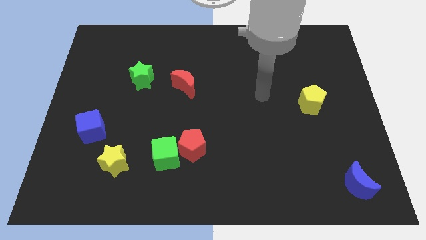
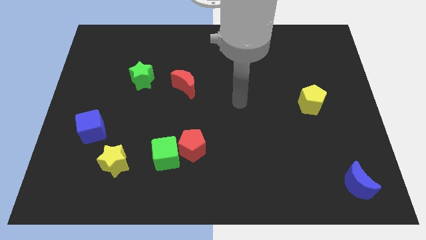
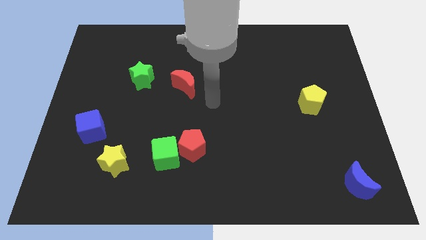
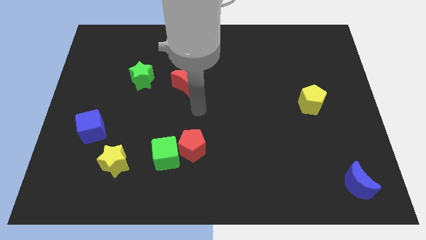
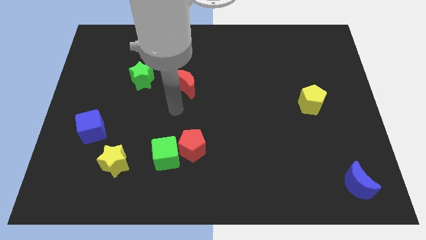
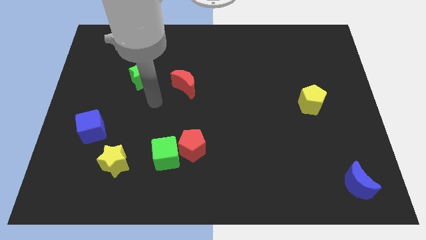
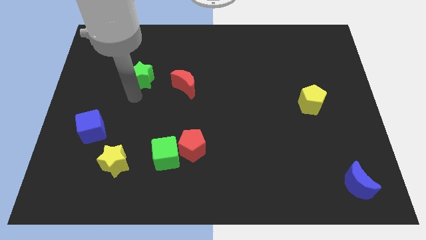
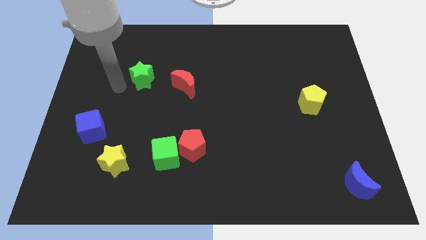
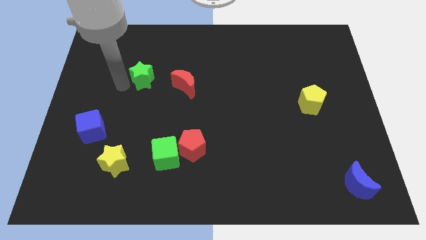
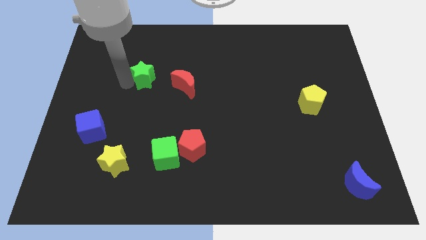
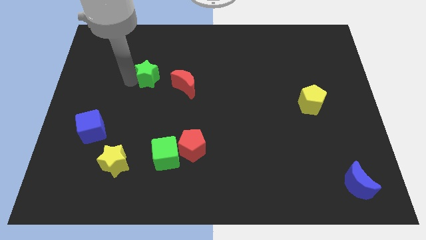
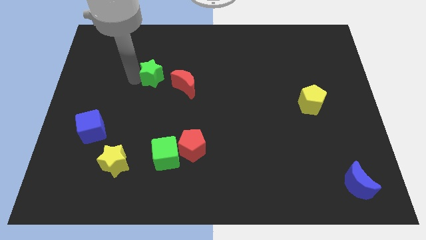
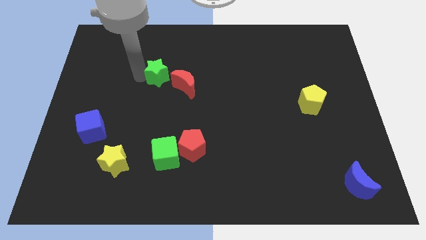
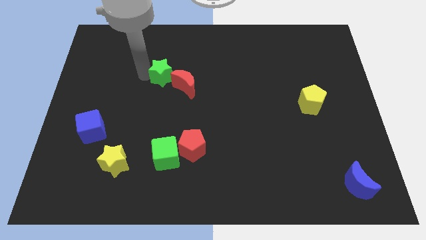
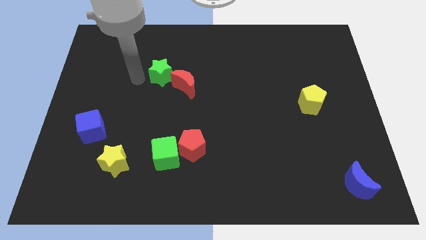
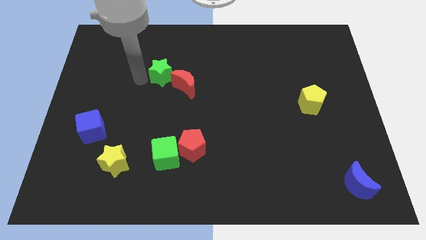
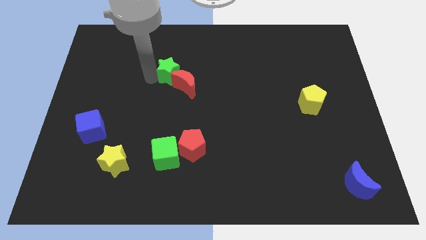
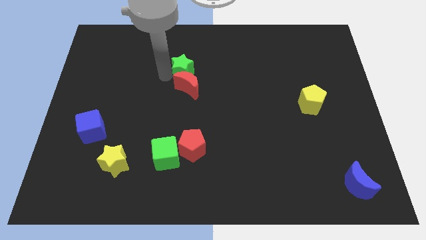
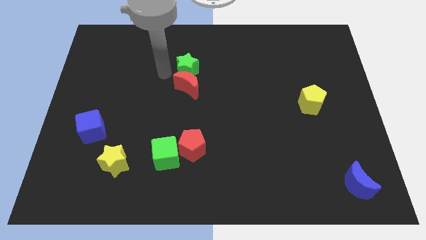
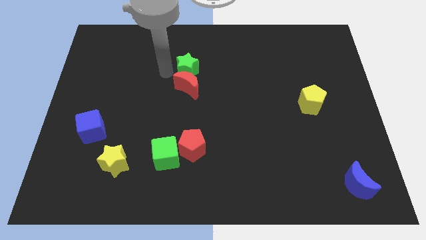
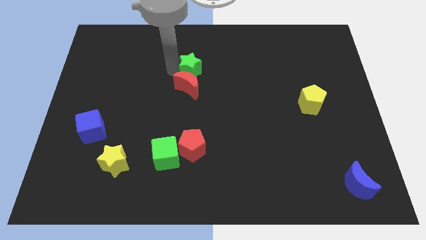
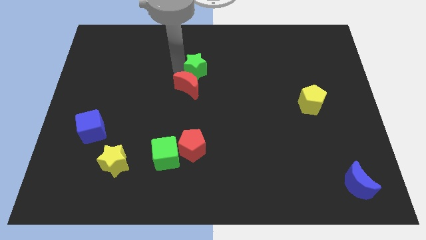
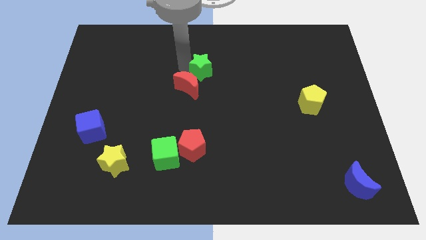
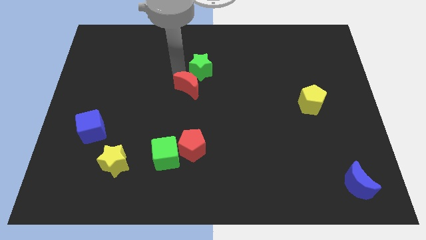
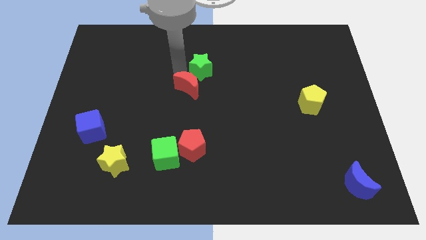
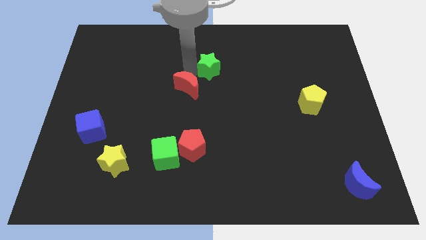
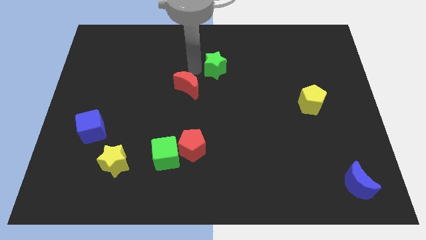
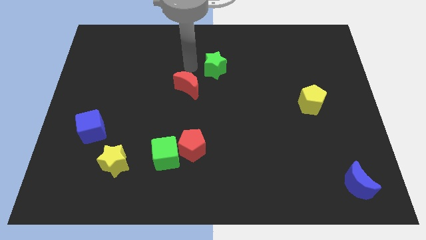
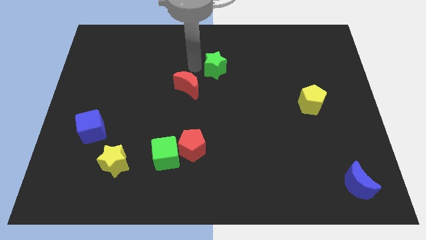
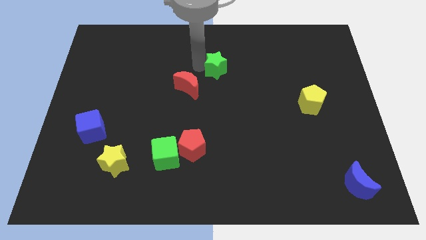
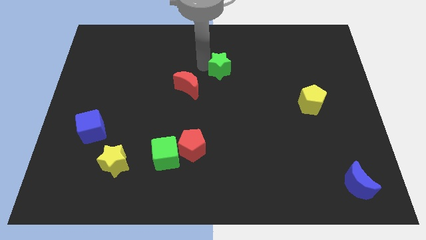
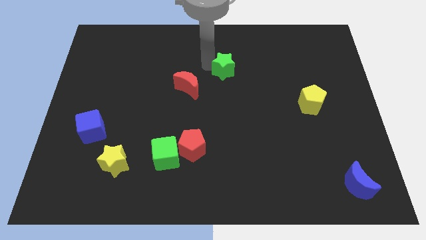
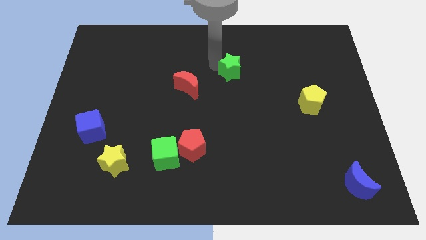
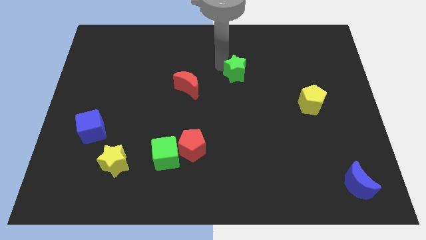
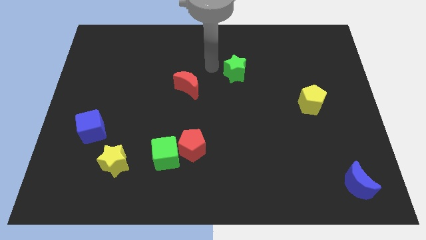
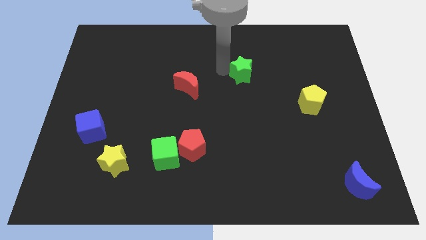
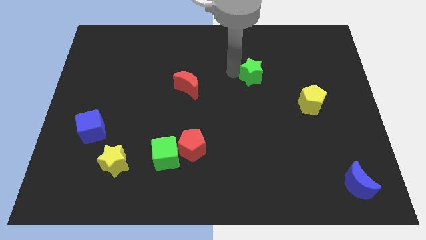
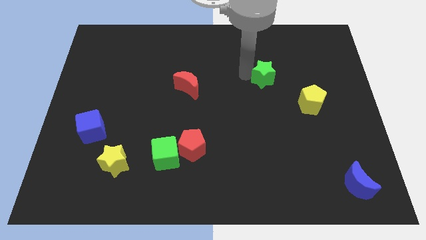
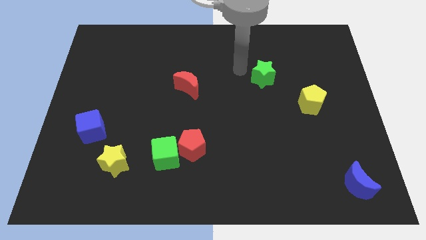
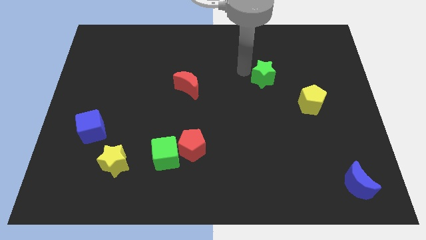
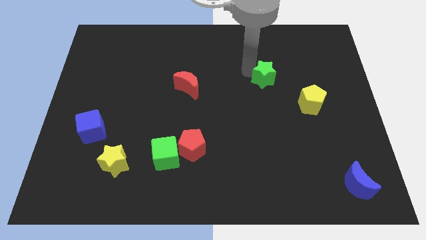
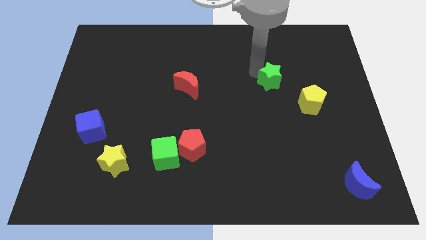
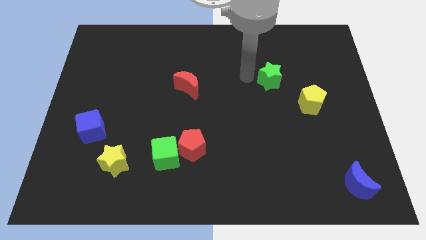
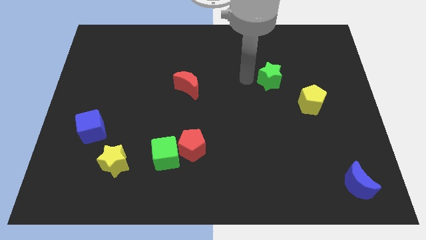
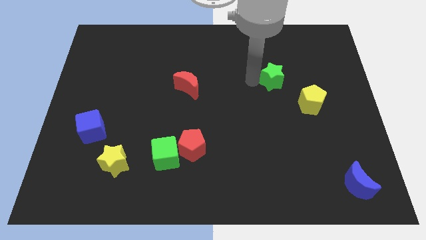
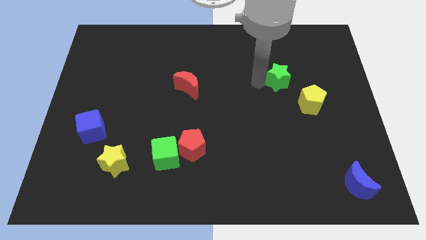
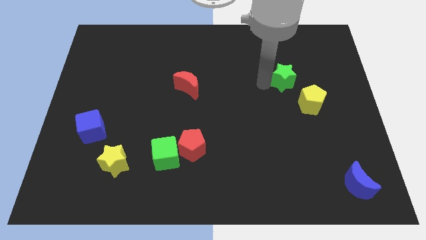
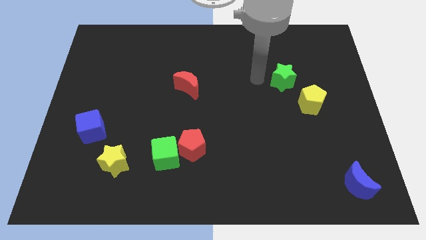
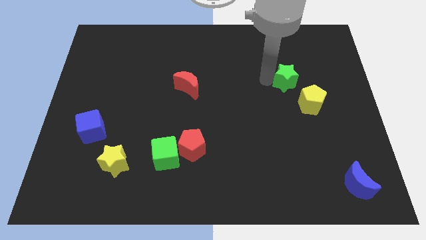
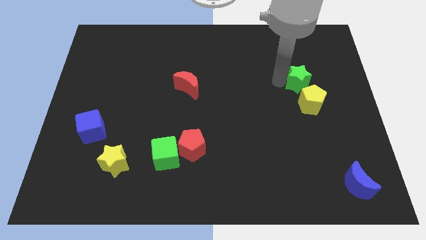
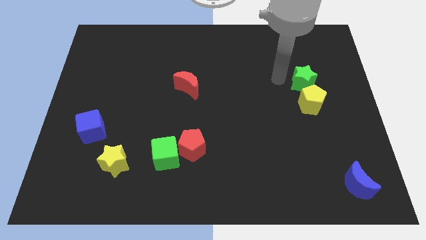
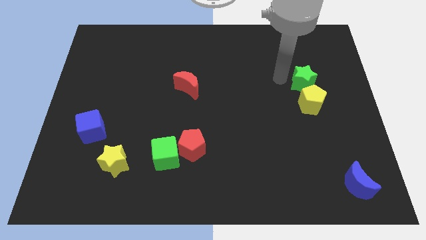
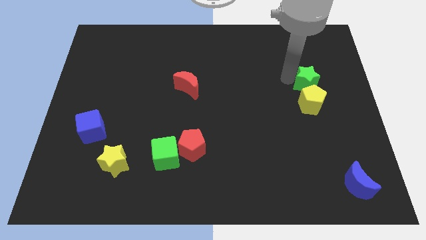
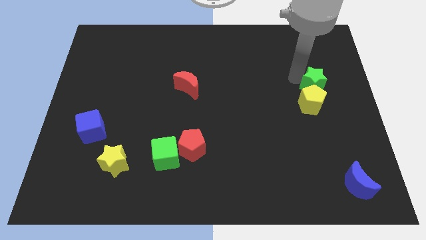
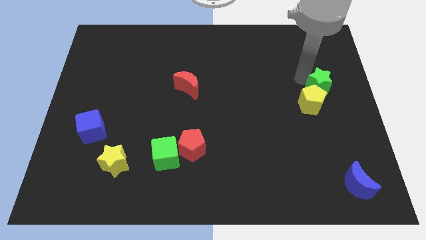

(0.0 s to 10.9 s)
put the green star to the right side

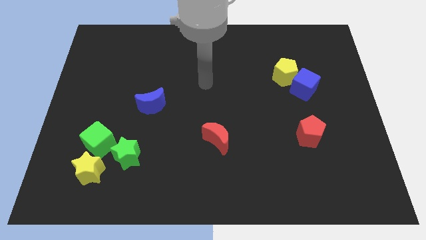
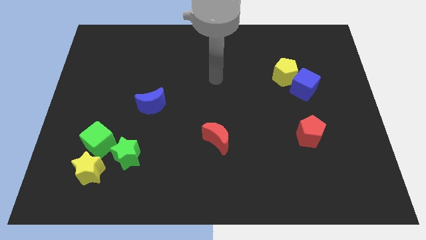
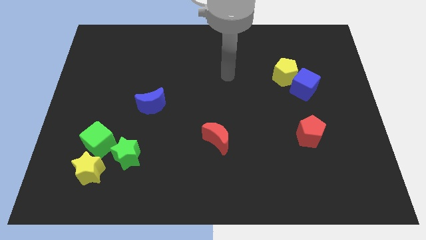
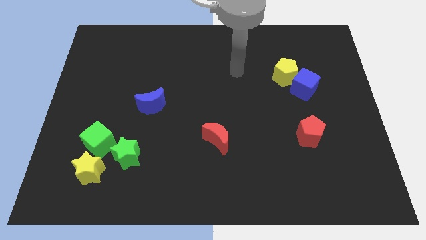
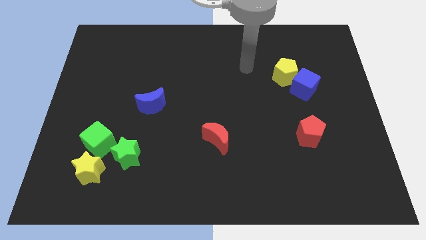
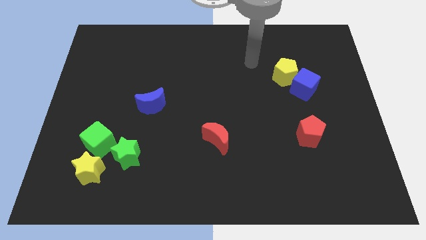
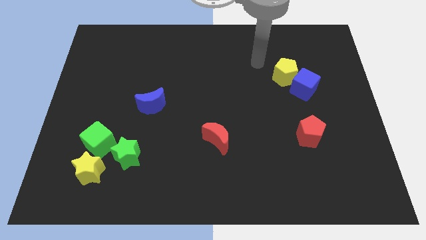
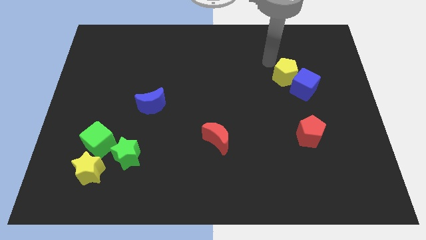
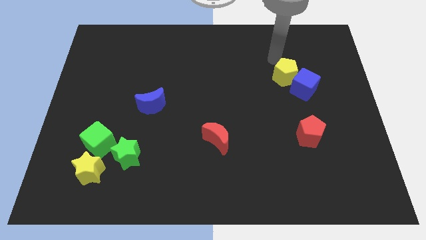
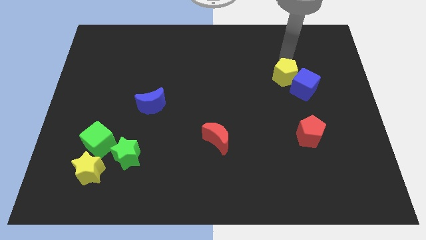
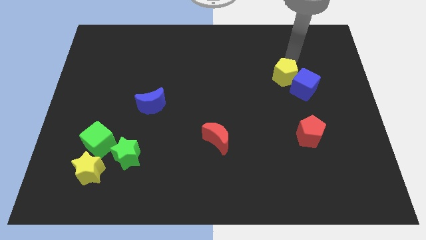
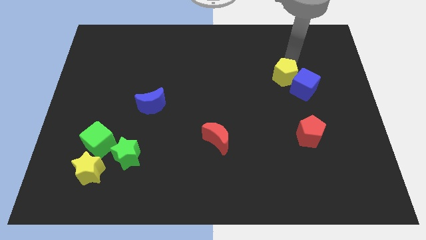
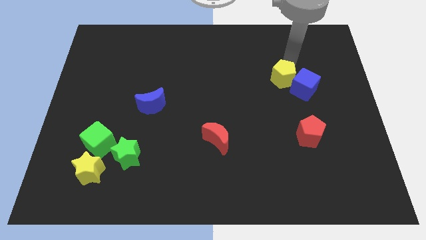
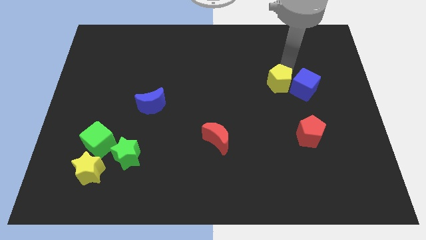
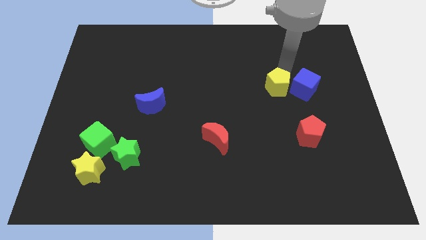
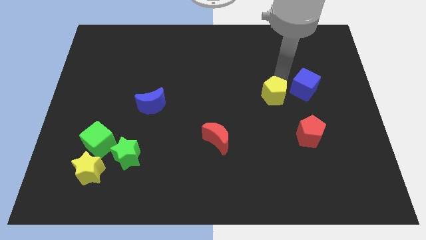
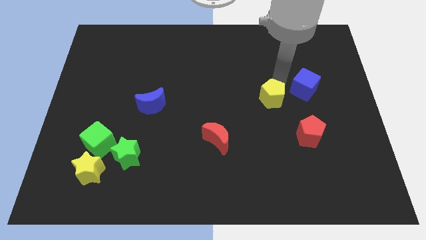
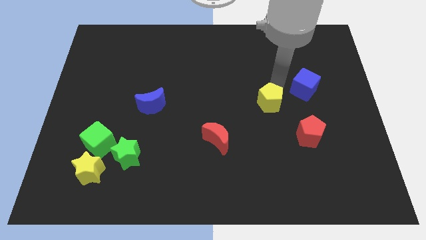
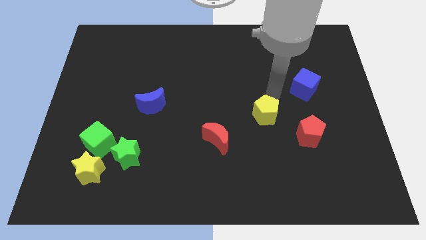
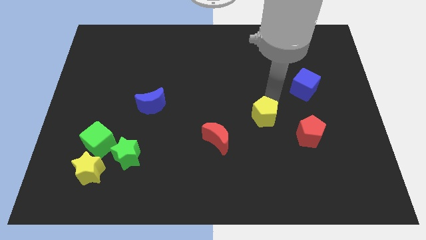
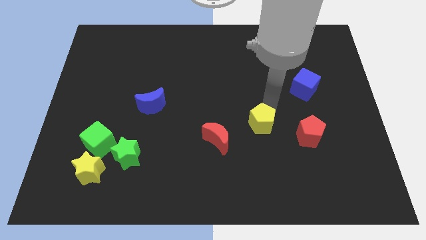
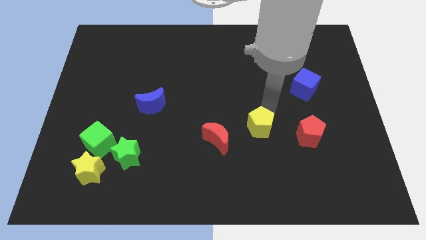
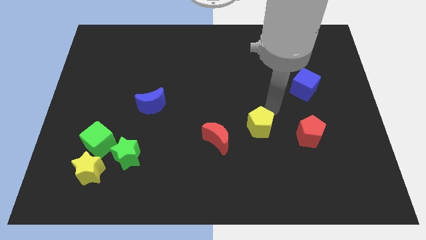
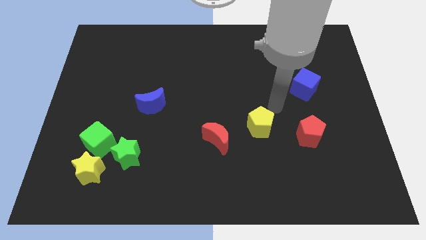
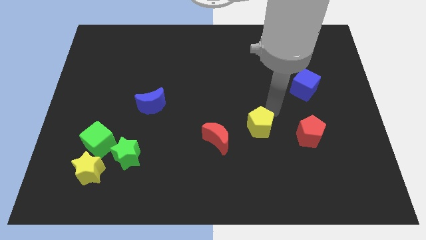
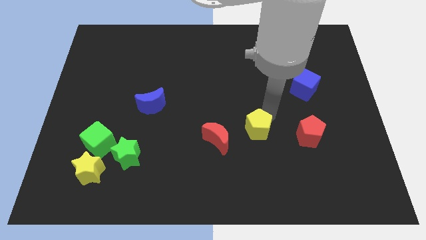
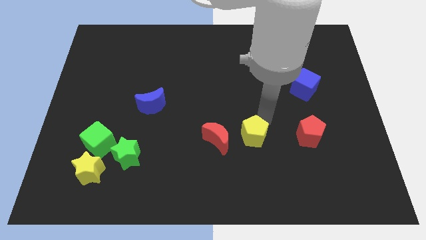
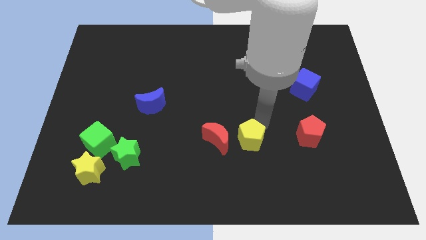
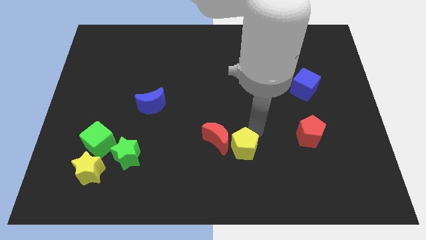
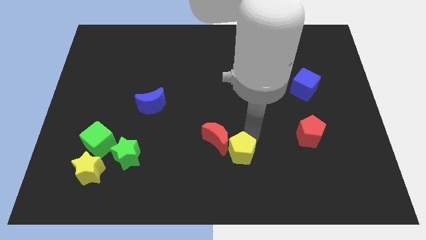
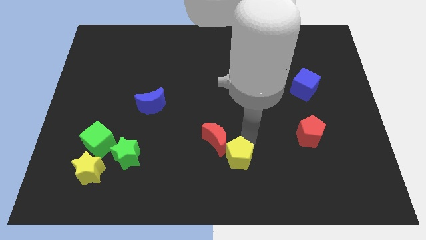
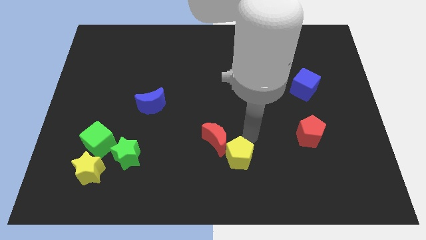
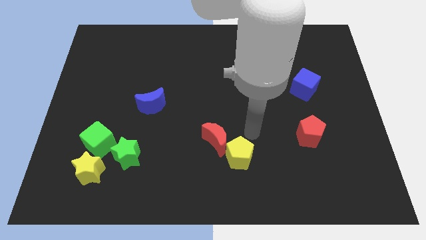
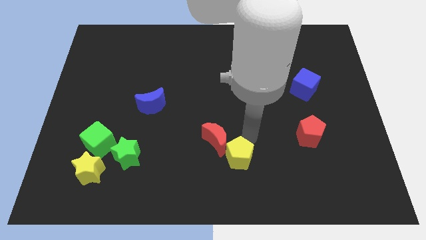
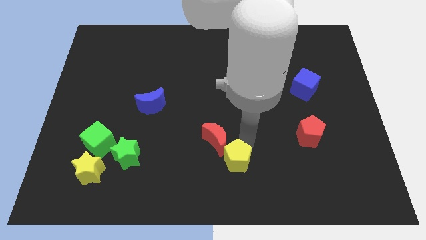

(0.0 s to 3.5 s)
put the yellow pentagon to the bottom side
